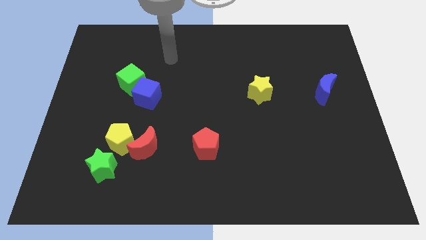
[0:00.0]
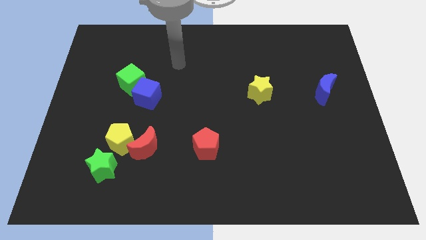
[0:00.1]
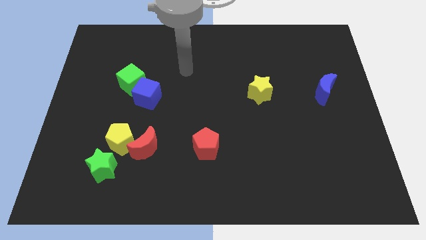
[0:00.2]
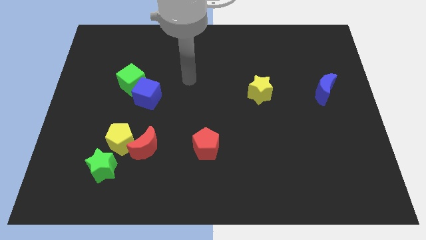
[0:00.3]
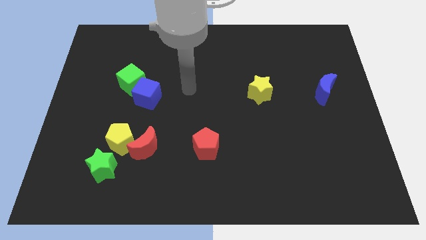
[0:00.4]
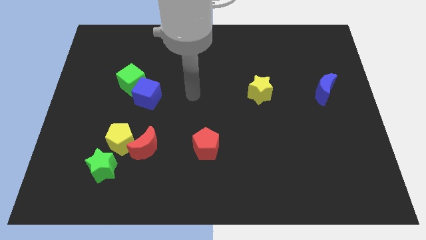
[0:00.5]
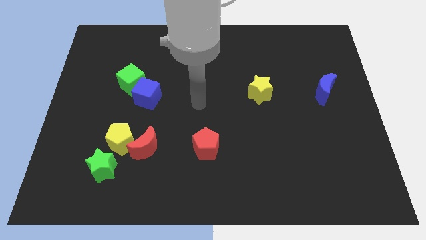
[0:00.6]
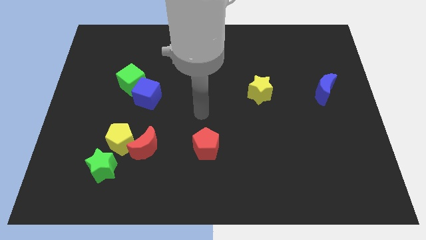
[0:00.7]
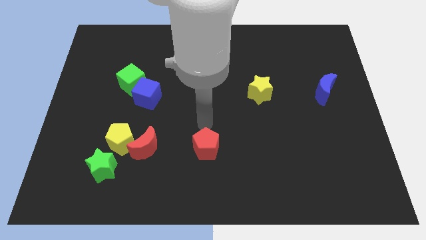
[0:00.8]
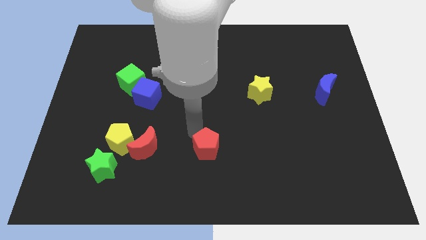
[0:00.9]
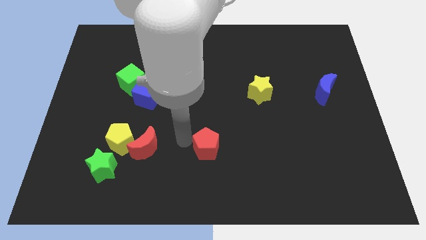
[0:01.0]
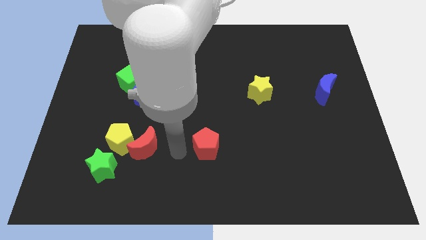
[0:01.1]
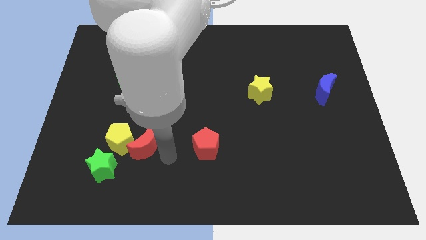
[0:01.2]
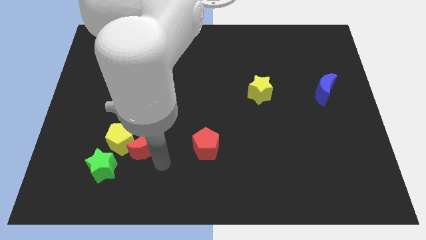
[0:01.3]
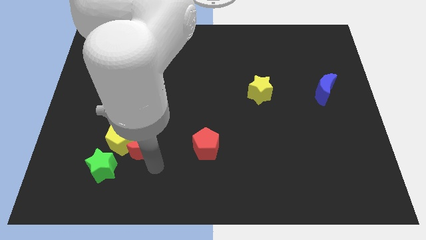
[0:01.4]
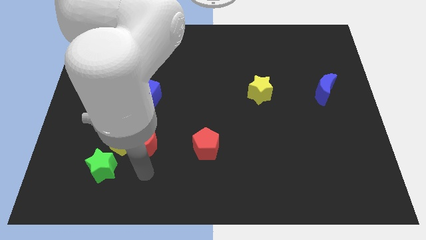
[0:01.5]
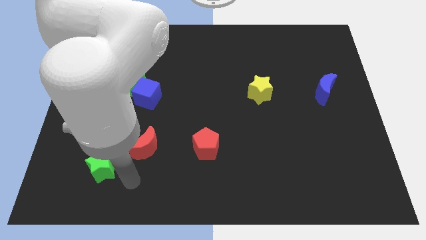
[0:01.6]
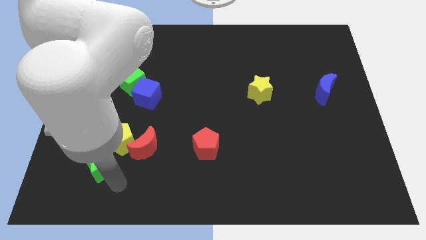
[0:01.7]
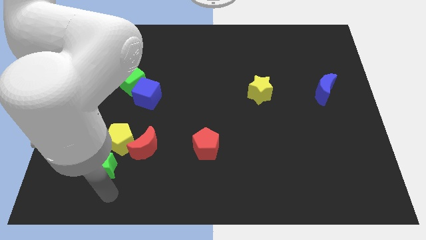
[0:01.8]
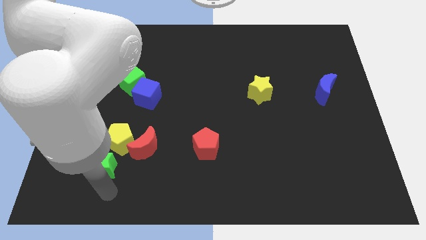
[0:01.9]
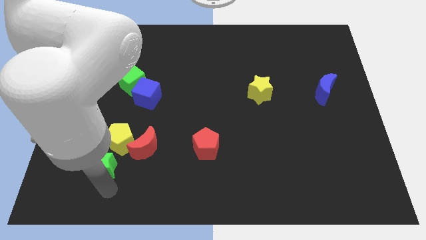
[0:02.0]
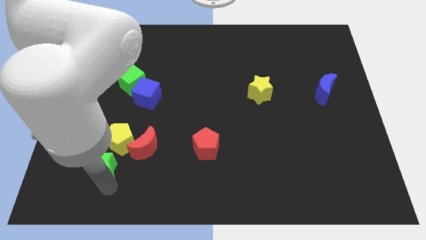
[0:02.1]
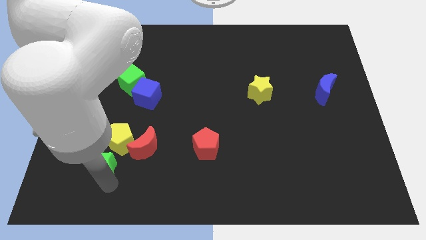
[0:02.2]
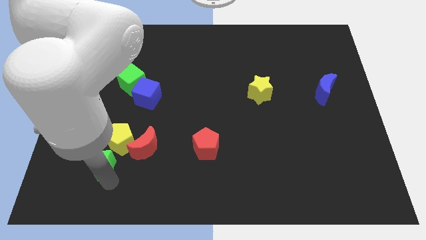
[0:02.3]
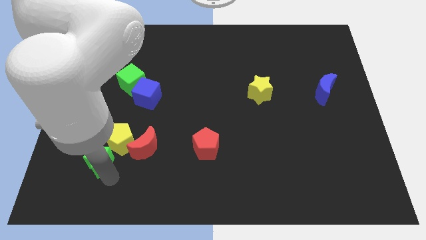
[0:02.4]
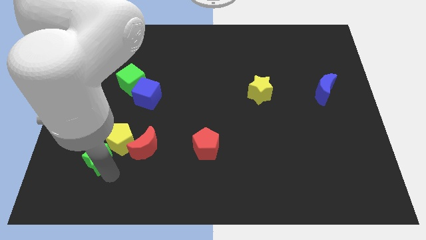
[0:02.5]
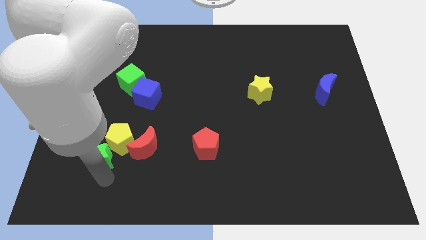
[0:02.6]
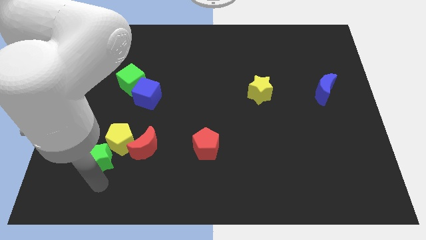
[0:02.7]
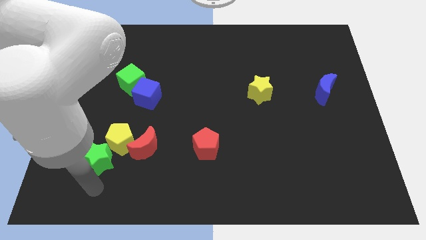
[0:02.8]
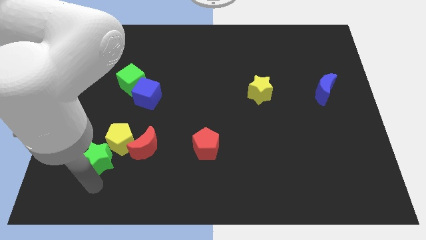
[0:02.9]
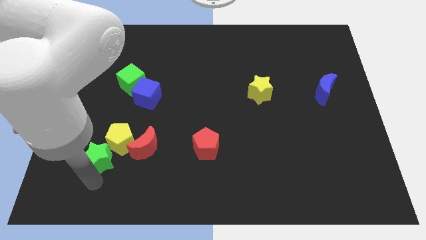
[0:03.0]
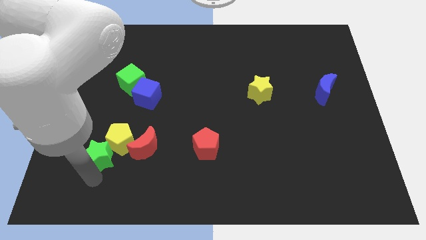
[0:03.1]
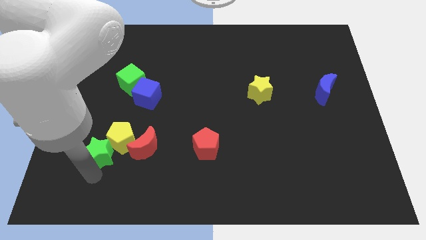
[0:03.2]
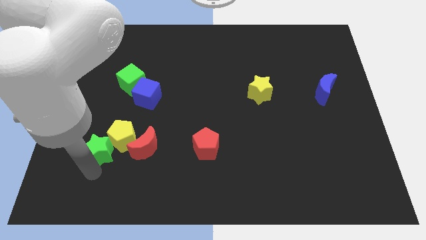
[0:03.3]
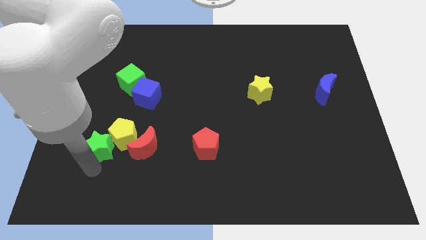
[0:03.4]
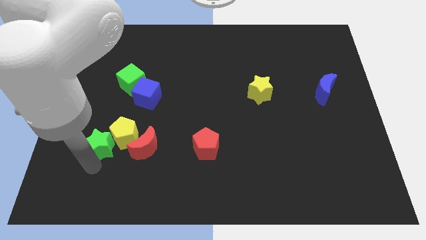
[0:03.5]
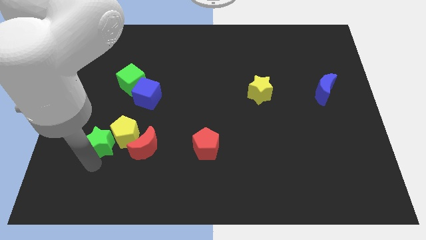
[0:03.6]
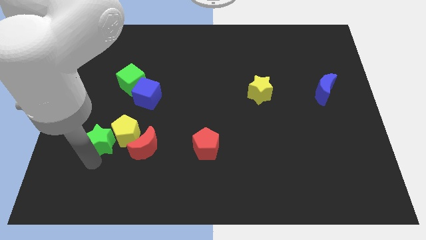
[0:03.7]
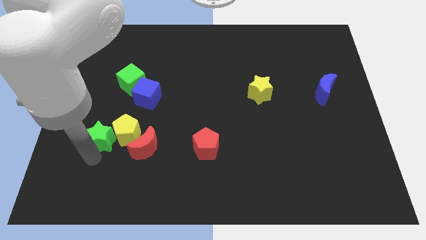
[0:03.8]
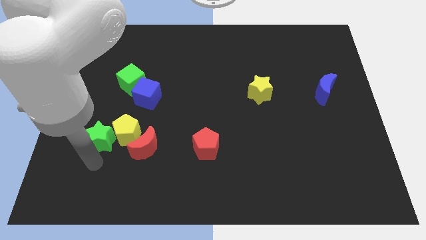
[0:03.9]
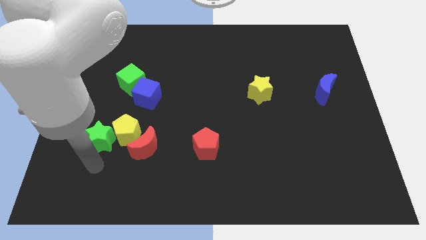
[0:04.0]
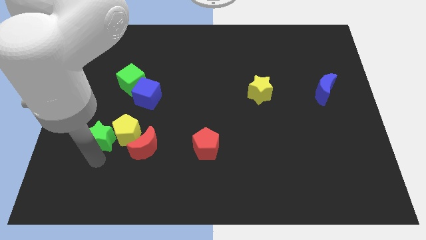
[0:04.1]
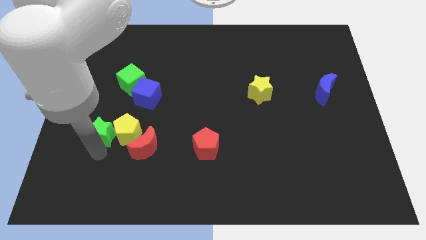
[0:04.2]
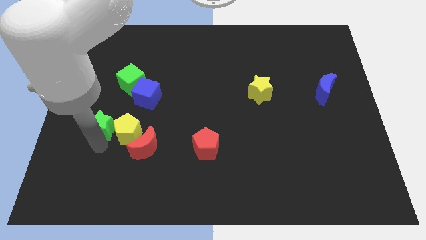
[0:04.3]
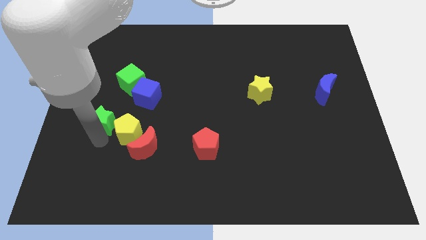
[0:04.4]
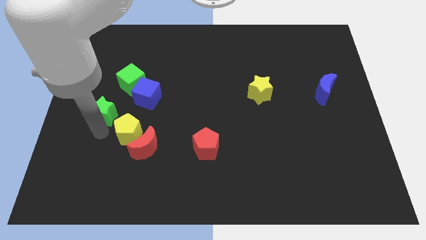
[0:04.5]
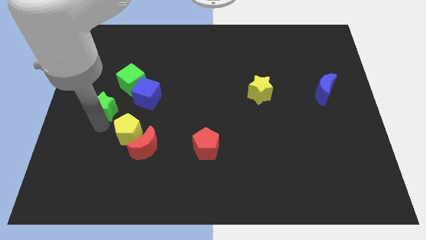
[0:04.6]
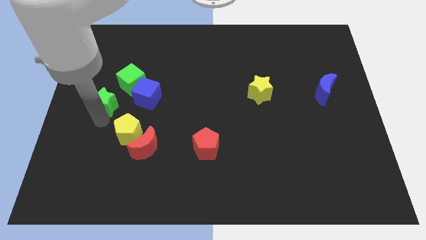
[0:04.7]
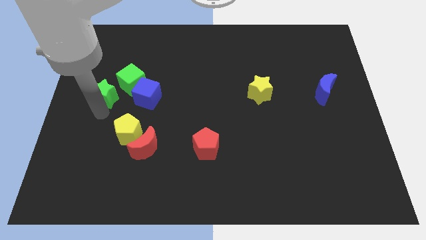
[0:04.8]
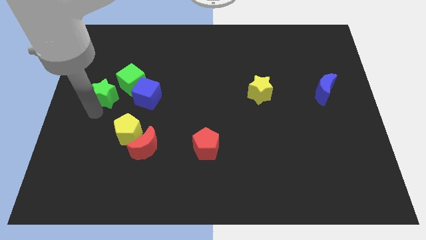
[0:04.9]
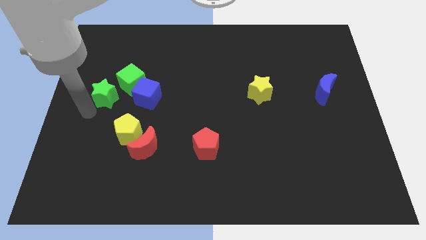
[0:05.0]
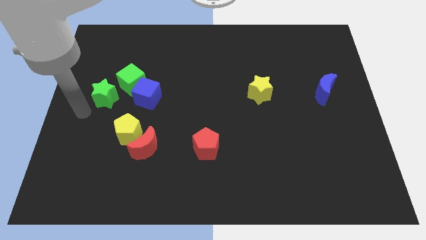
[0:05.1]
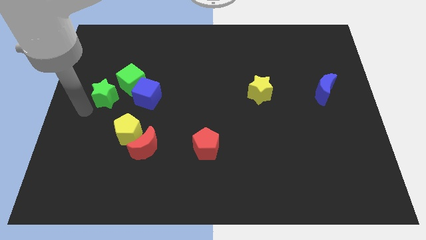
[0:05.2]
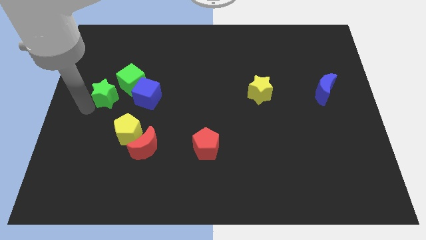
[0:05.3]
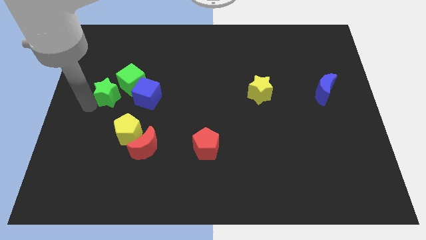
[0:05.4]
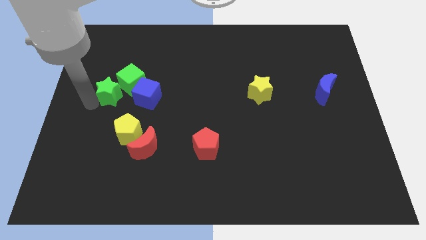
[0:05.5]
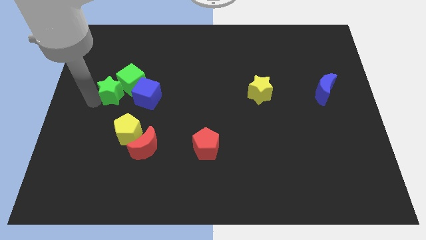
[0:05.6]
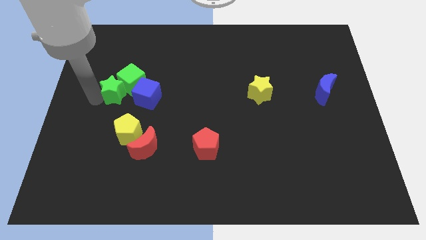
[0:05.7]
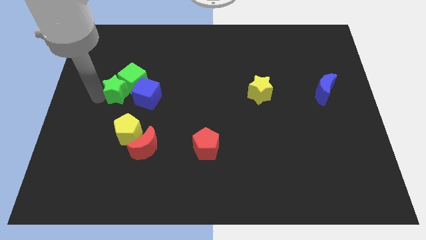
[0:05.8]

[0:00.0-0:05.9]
slide the green star to the top left of the blue cube

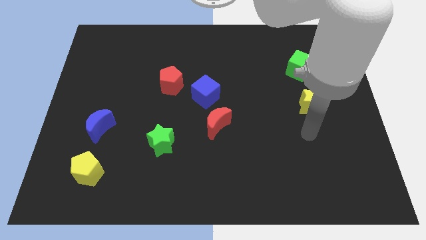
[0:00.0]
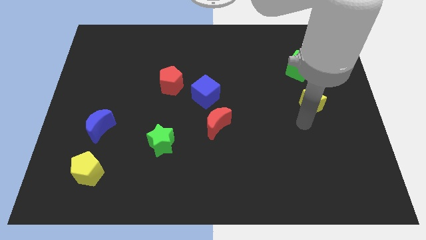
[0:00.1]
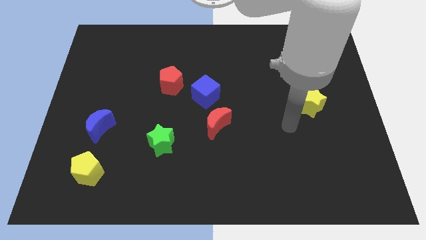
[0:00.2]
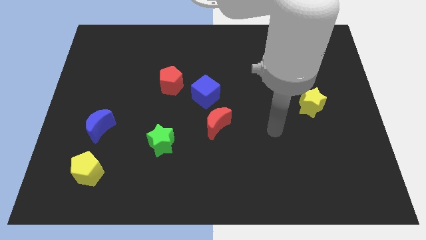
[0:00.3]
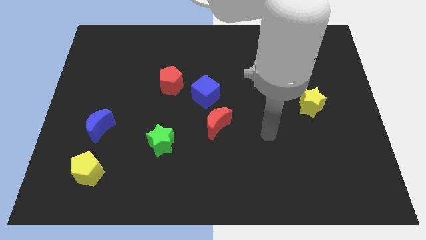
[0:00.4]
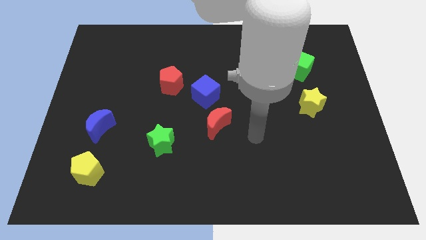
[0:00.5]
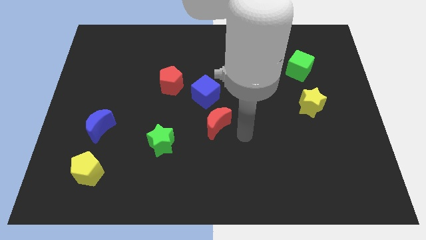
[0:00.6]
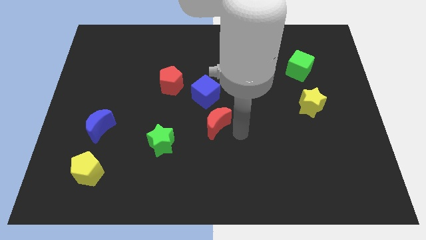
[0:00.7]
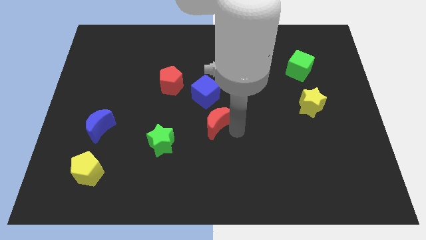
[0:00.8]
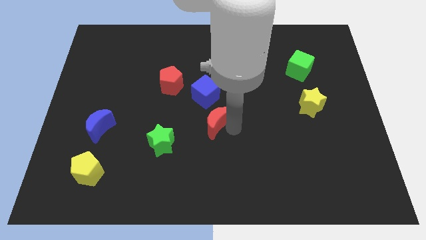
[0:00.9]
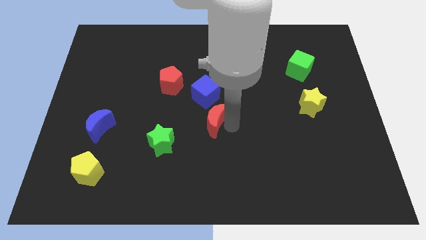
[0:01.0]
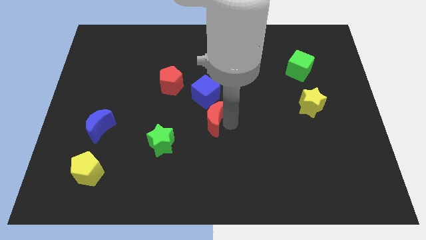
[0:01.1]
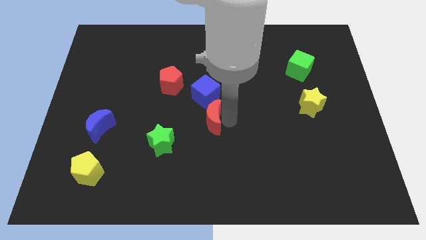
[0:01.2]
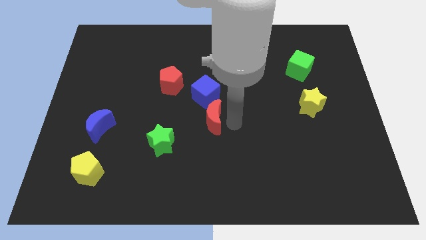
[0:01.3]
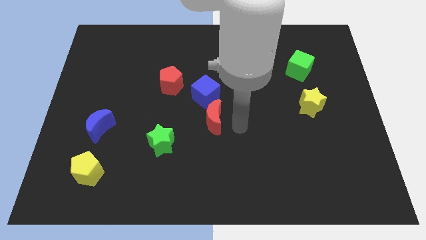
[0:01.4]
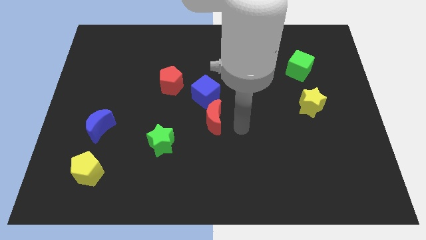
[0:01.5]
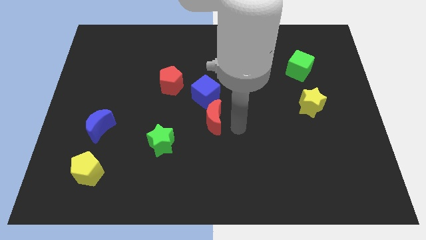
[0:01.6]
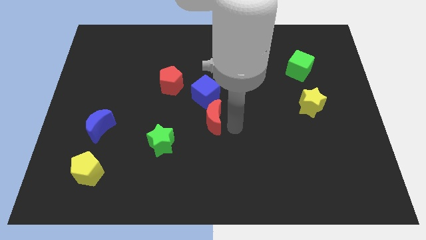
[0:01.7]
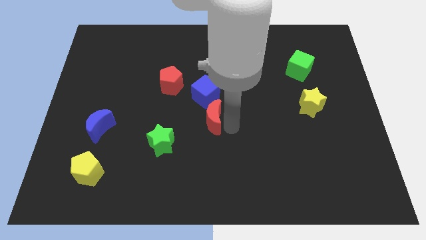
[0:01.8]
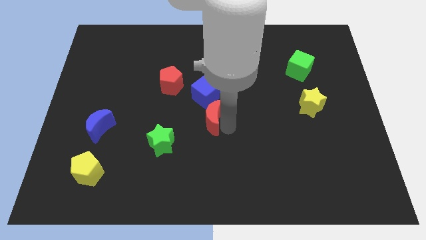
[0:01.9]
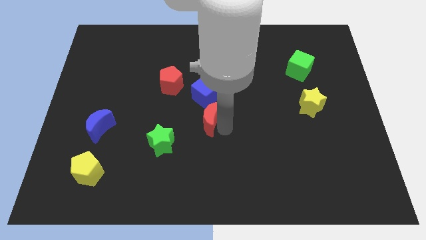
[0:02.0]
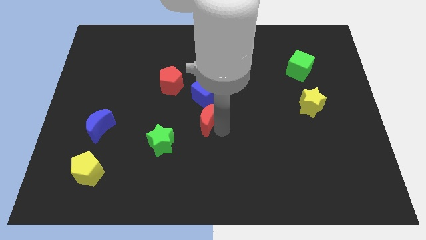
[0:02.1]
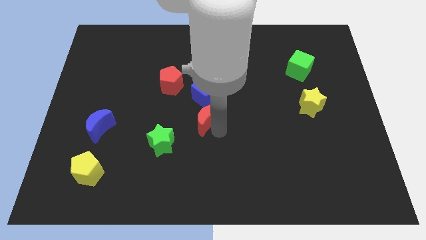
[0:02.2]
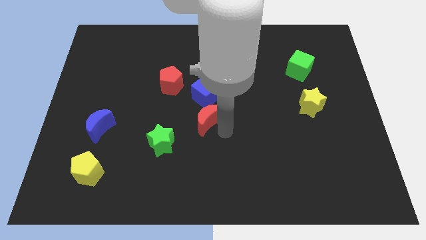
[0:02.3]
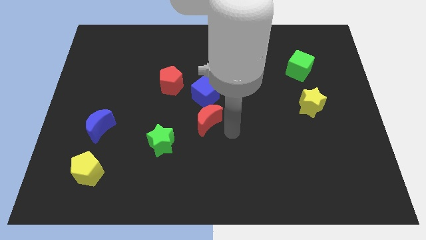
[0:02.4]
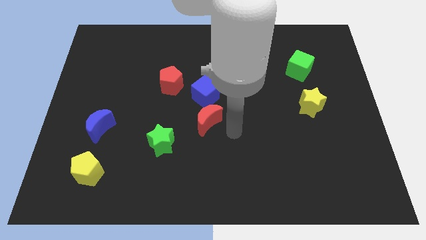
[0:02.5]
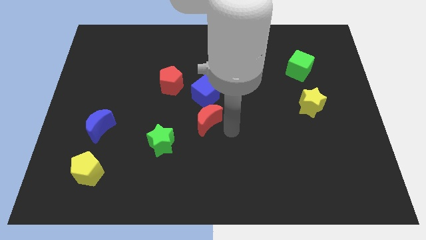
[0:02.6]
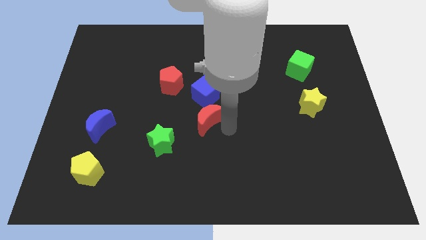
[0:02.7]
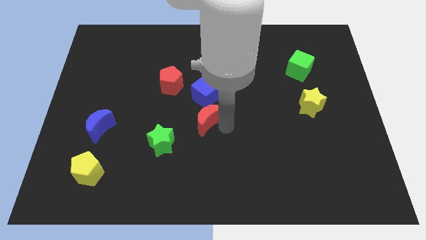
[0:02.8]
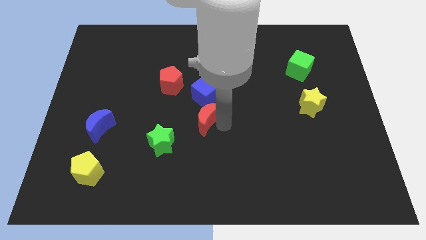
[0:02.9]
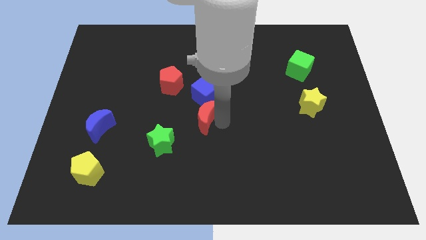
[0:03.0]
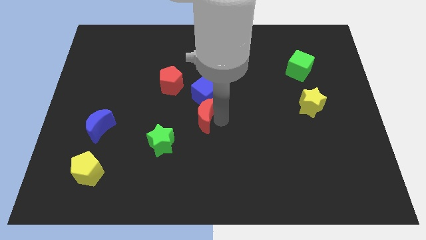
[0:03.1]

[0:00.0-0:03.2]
move the red moon diagonally down and to the left of the blue cube
